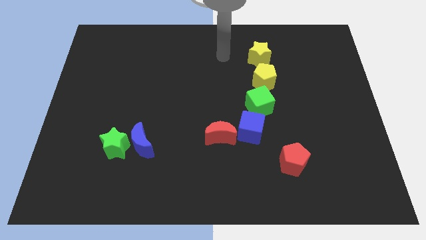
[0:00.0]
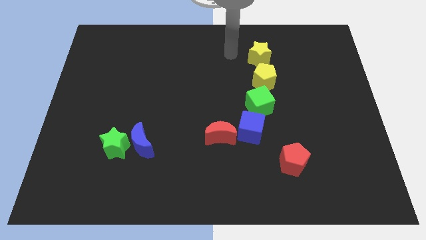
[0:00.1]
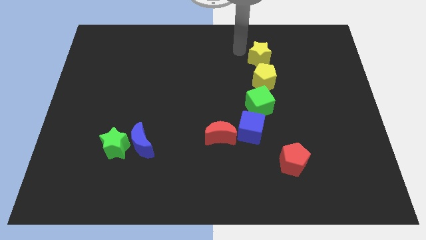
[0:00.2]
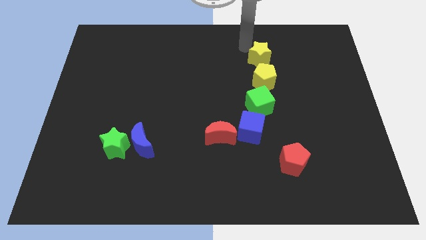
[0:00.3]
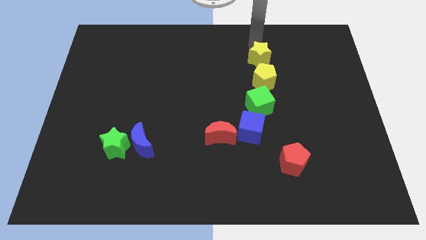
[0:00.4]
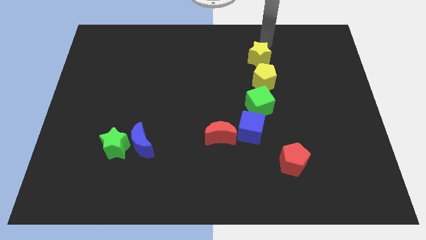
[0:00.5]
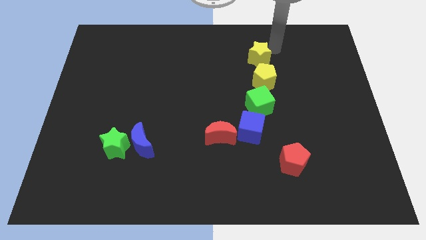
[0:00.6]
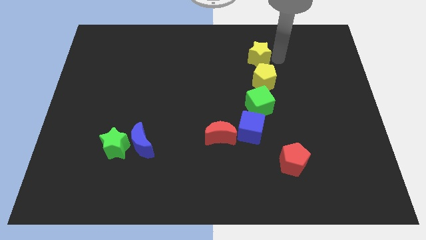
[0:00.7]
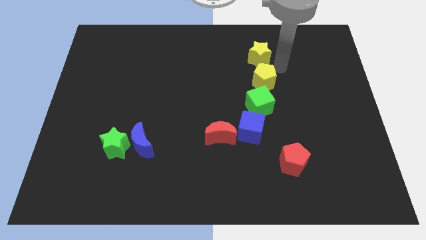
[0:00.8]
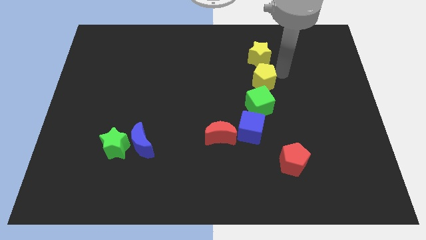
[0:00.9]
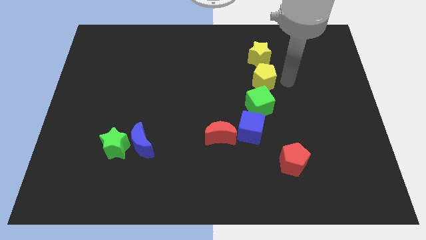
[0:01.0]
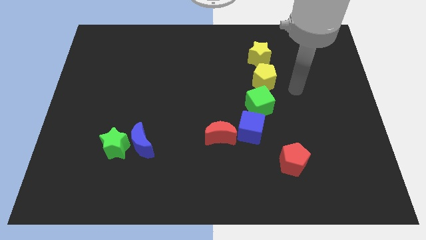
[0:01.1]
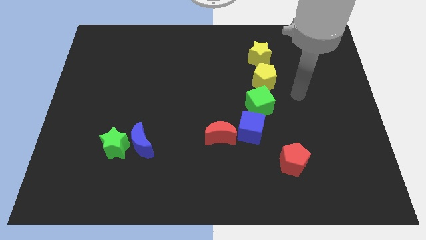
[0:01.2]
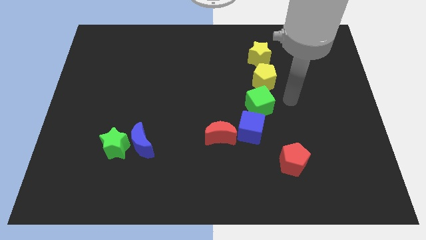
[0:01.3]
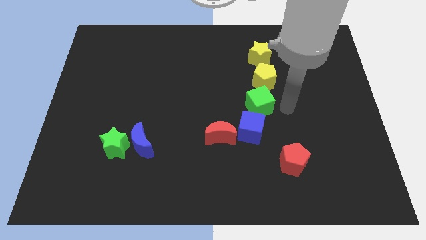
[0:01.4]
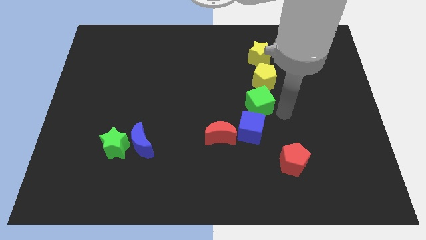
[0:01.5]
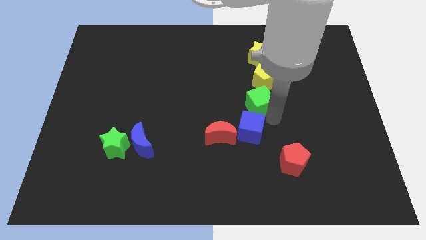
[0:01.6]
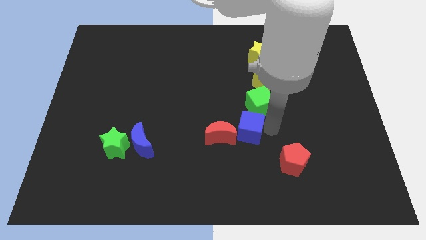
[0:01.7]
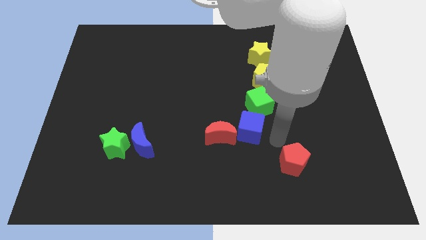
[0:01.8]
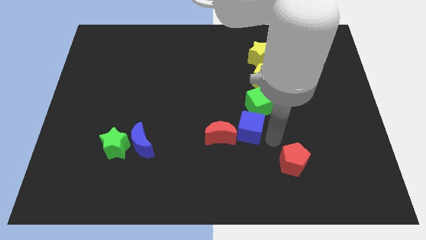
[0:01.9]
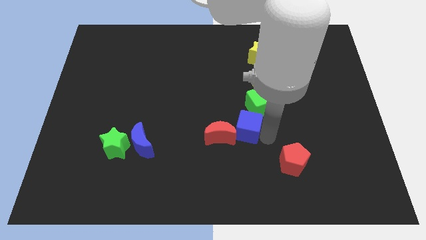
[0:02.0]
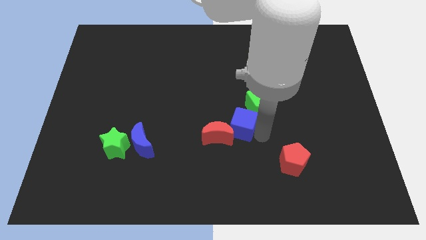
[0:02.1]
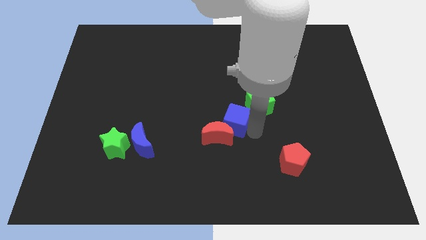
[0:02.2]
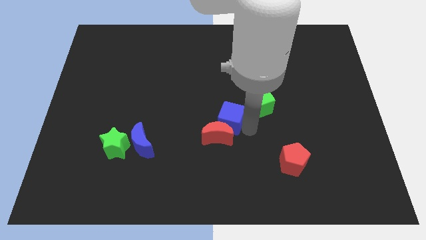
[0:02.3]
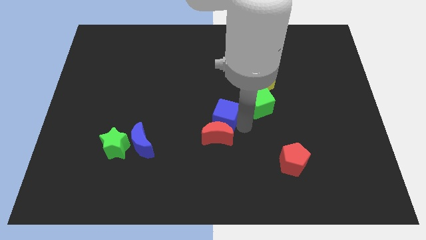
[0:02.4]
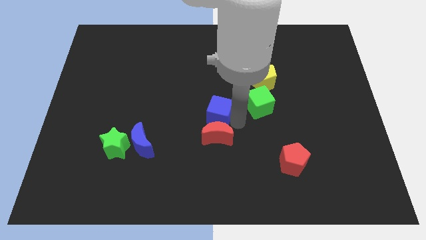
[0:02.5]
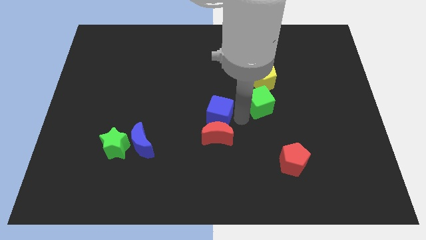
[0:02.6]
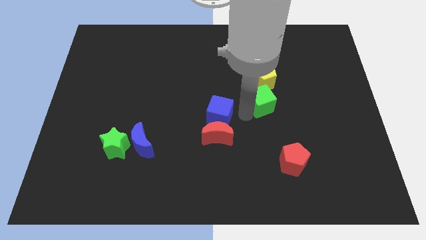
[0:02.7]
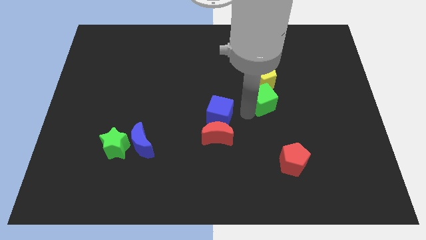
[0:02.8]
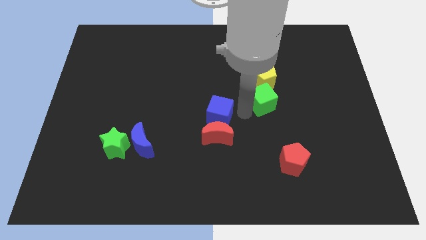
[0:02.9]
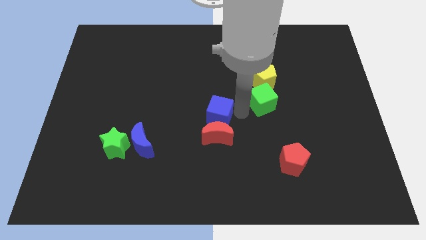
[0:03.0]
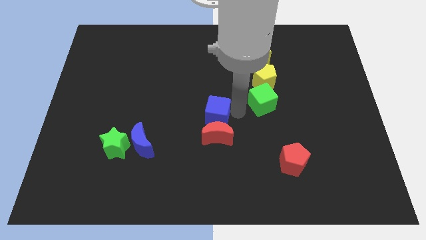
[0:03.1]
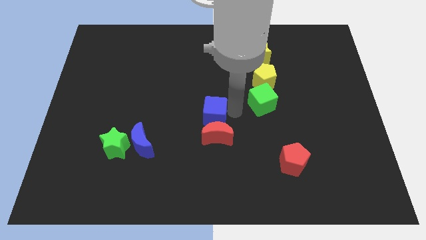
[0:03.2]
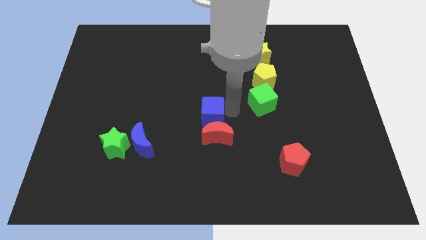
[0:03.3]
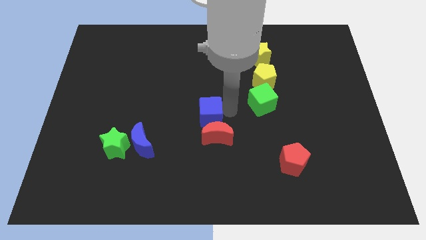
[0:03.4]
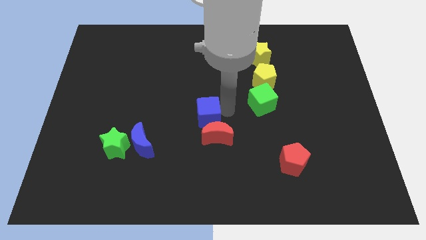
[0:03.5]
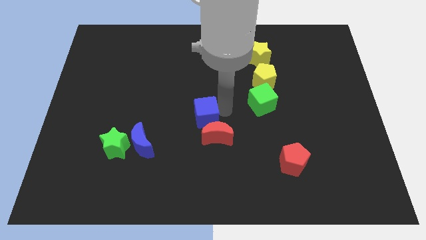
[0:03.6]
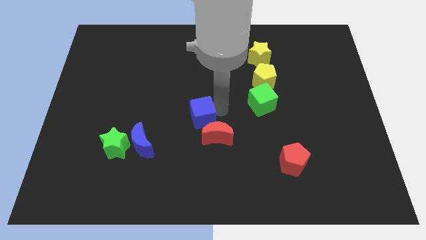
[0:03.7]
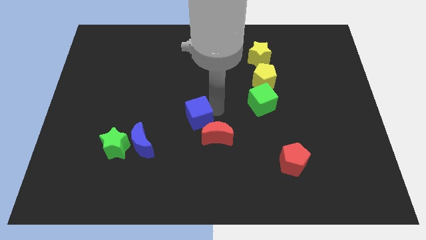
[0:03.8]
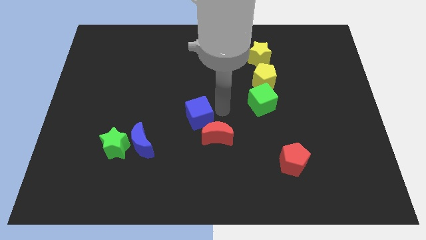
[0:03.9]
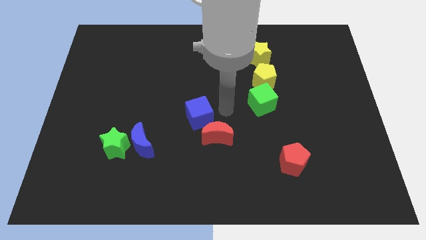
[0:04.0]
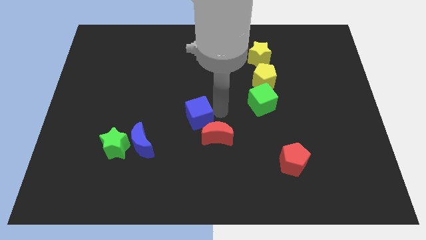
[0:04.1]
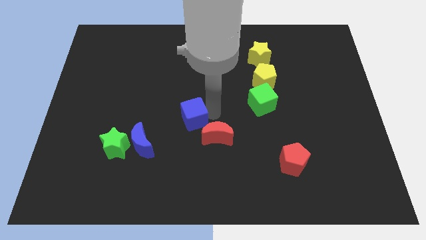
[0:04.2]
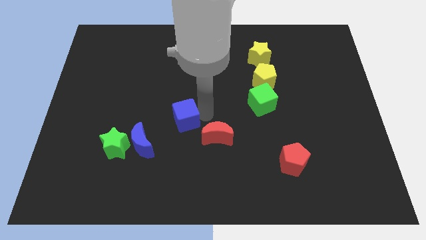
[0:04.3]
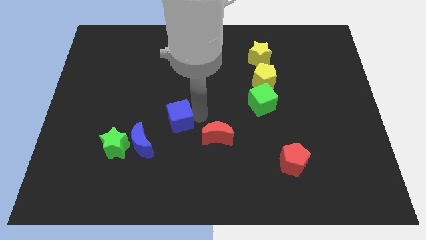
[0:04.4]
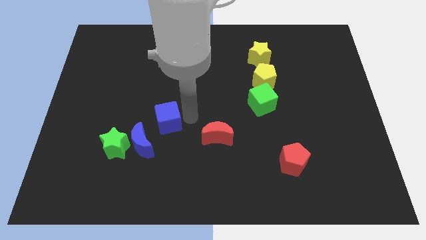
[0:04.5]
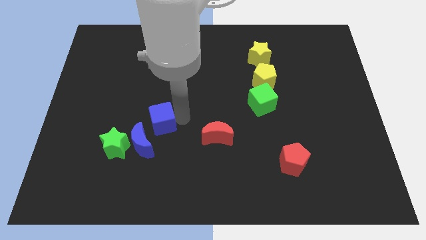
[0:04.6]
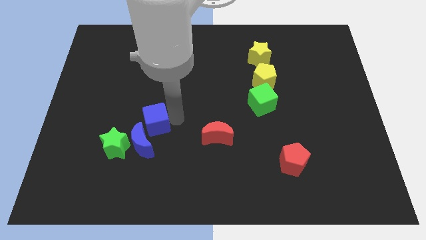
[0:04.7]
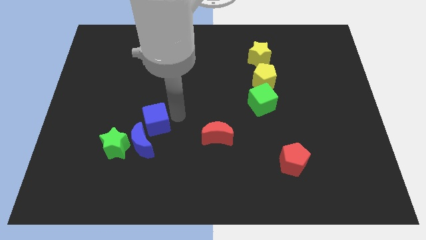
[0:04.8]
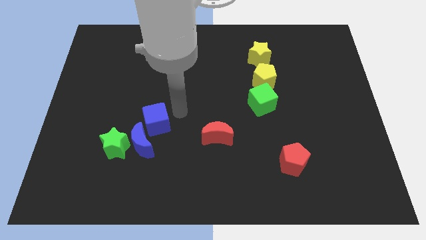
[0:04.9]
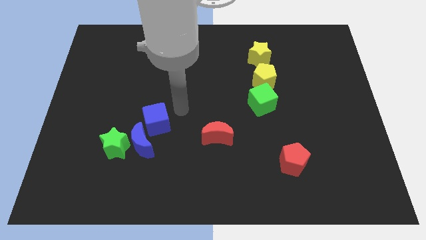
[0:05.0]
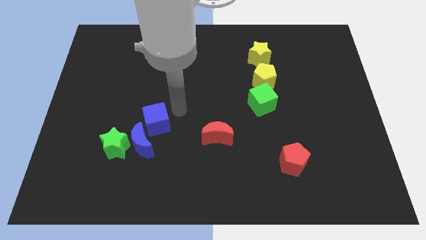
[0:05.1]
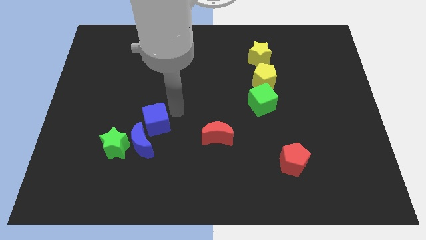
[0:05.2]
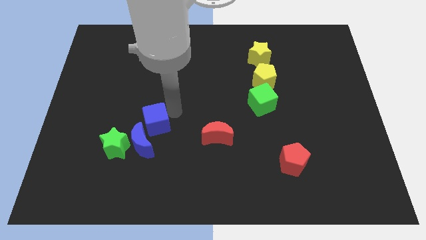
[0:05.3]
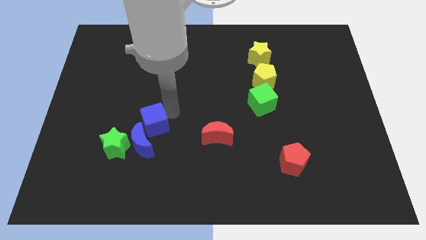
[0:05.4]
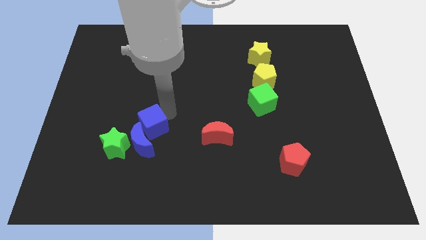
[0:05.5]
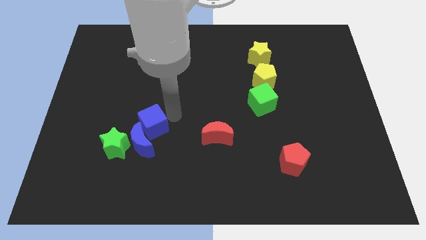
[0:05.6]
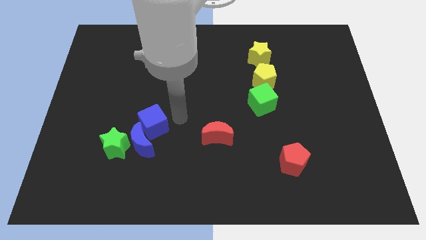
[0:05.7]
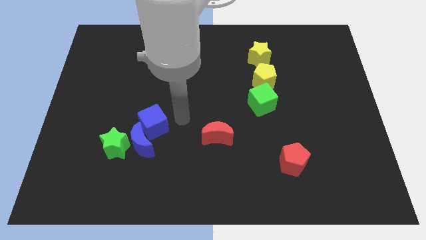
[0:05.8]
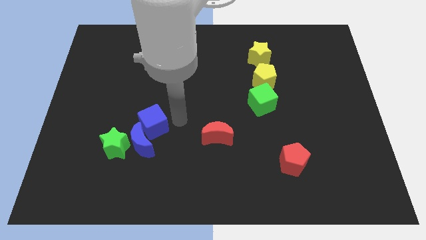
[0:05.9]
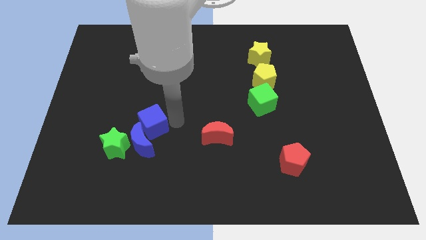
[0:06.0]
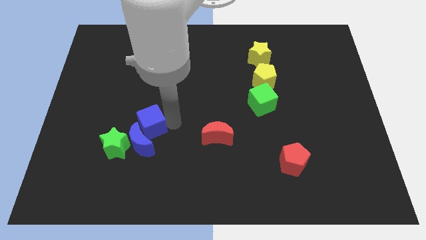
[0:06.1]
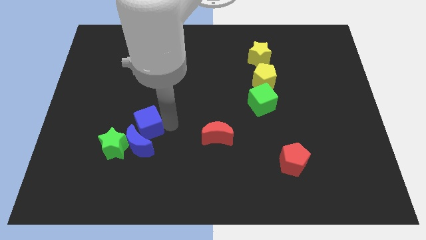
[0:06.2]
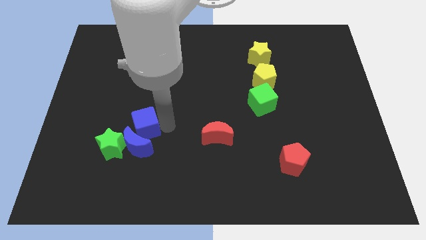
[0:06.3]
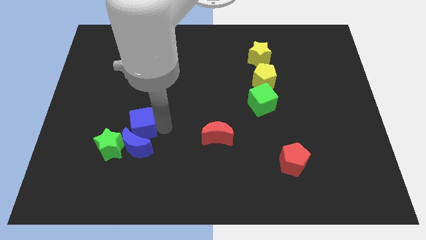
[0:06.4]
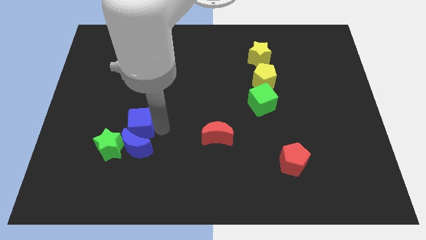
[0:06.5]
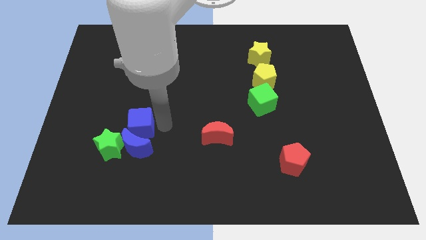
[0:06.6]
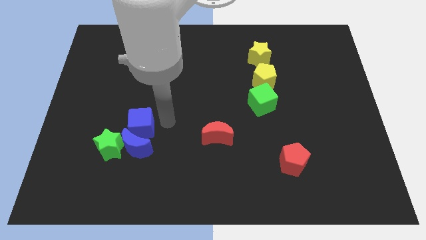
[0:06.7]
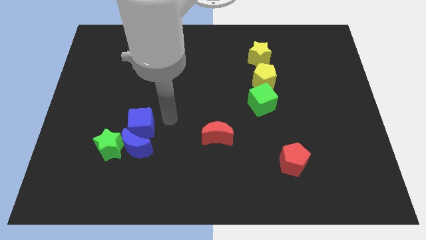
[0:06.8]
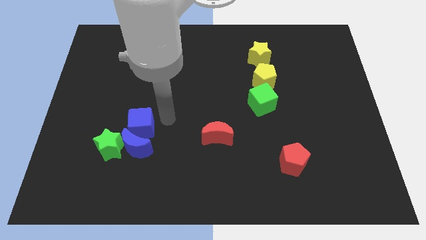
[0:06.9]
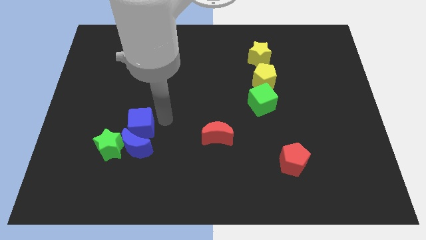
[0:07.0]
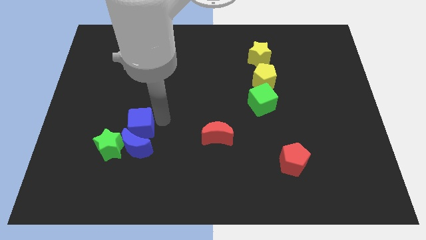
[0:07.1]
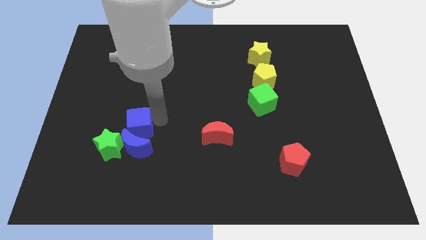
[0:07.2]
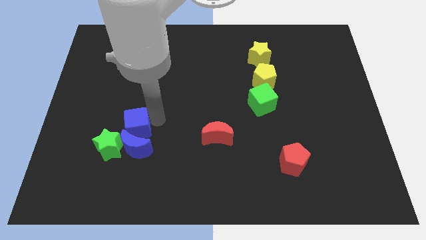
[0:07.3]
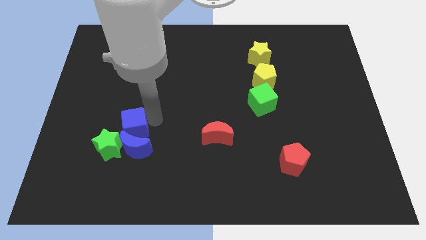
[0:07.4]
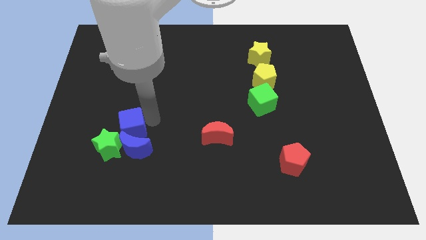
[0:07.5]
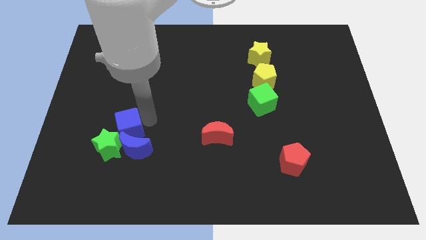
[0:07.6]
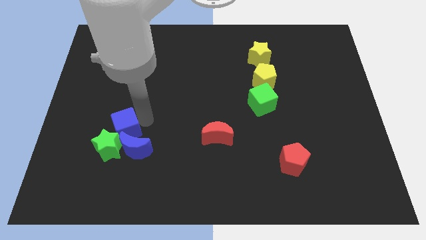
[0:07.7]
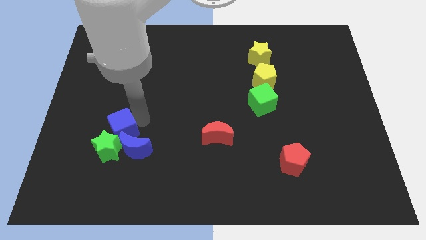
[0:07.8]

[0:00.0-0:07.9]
push the blue cube to the green star
